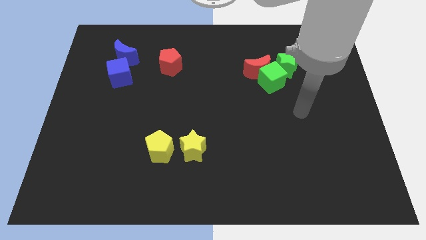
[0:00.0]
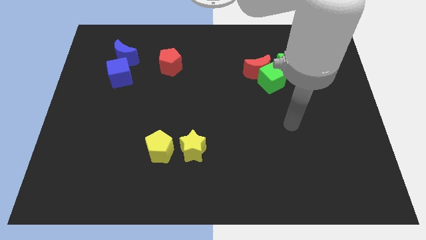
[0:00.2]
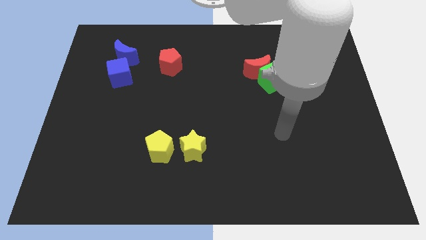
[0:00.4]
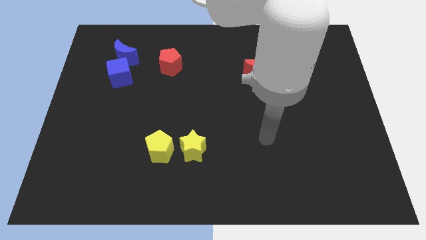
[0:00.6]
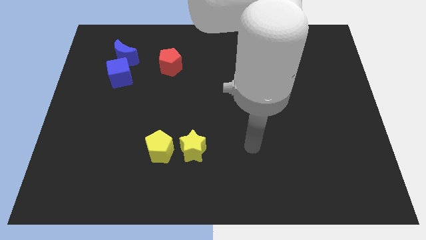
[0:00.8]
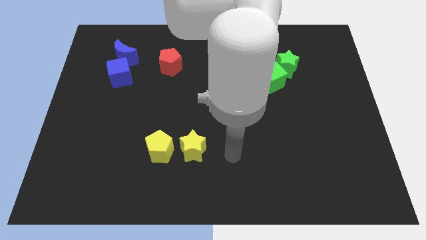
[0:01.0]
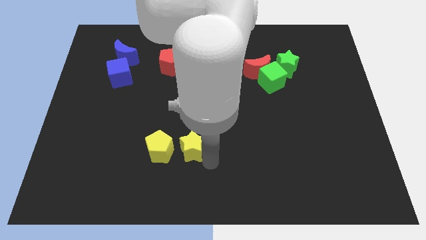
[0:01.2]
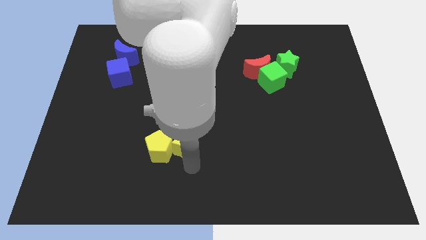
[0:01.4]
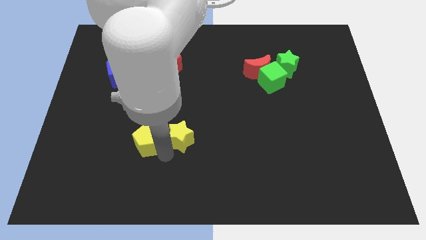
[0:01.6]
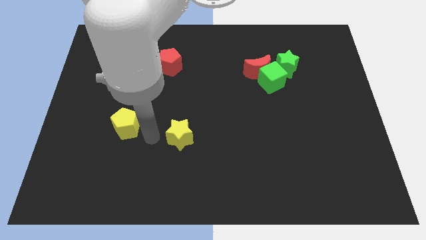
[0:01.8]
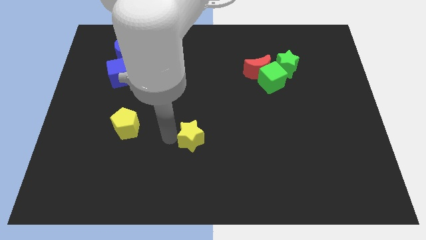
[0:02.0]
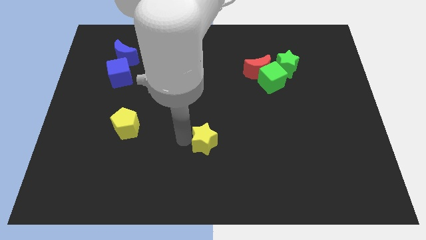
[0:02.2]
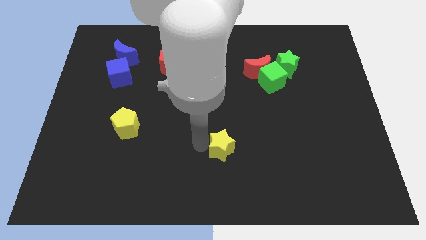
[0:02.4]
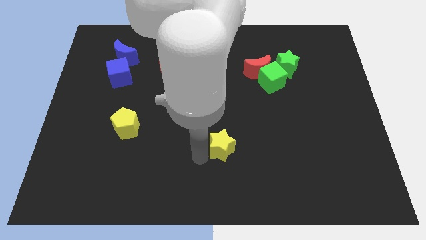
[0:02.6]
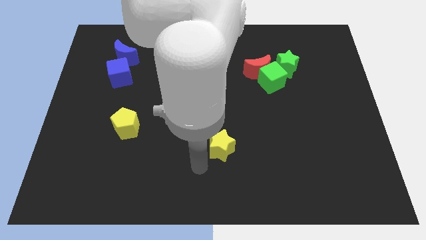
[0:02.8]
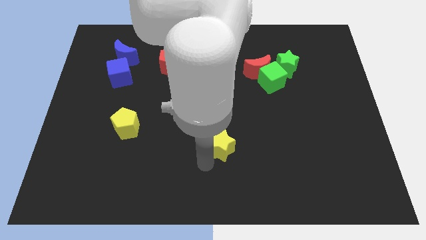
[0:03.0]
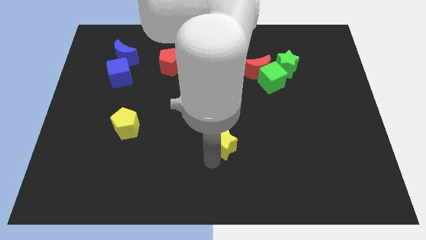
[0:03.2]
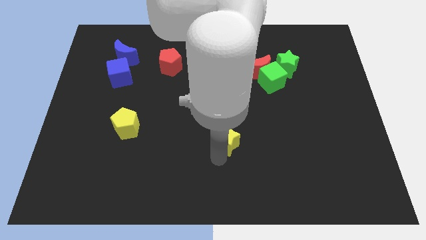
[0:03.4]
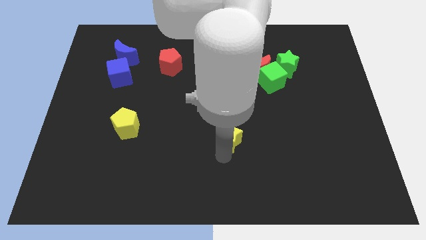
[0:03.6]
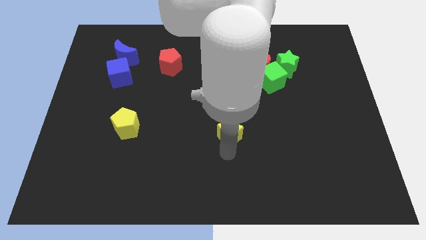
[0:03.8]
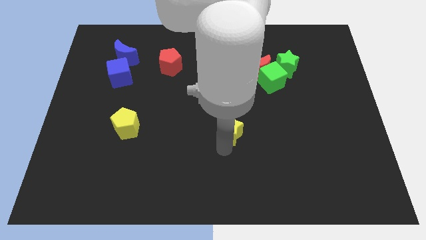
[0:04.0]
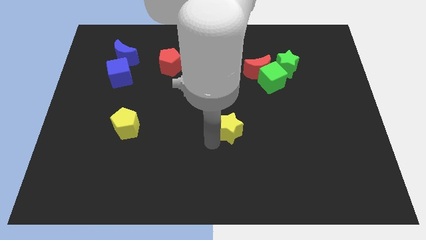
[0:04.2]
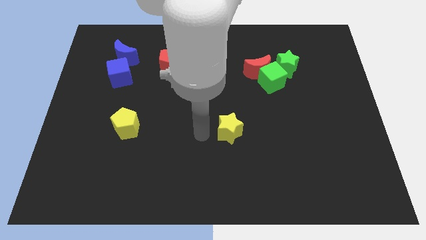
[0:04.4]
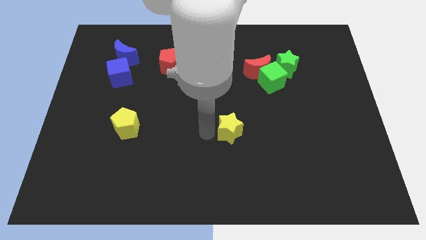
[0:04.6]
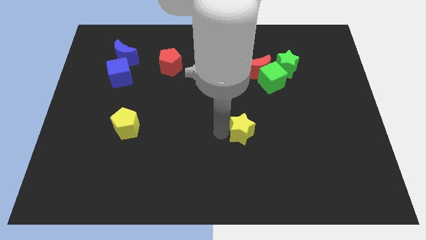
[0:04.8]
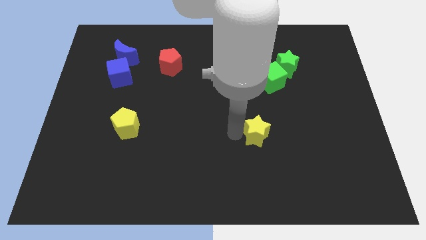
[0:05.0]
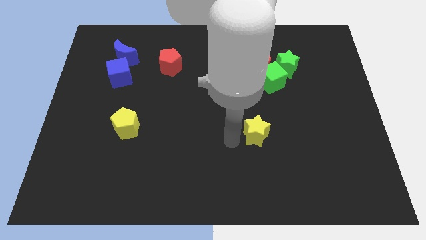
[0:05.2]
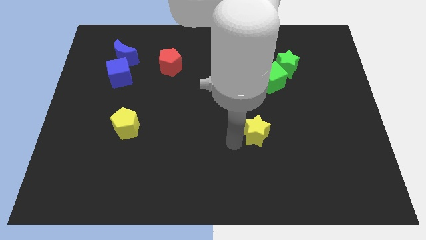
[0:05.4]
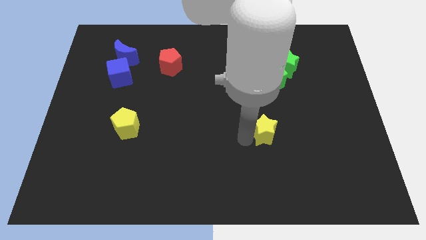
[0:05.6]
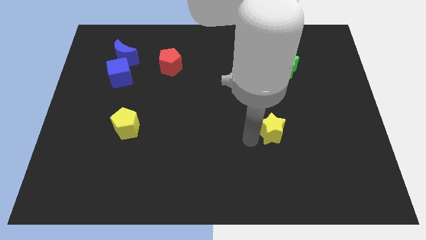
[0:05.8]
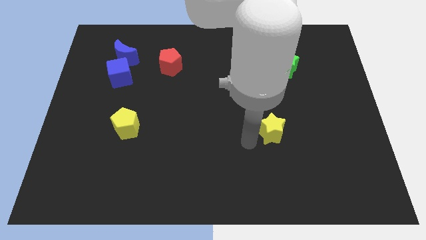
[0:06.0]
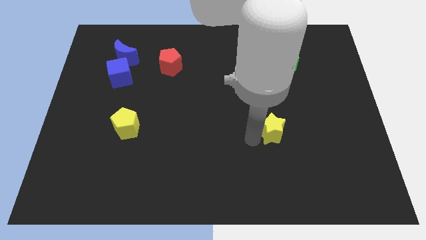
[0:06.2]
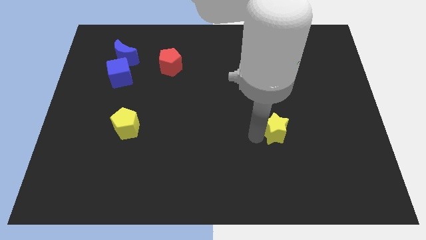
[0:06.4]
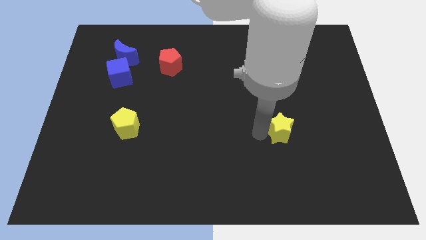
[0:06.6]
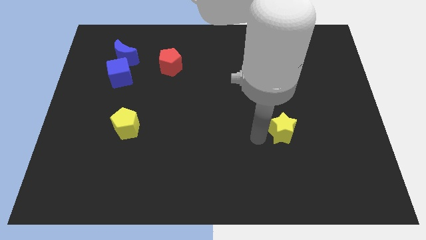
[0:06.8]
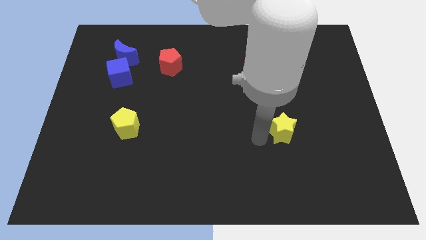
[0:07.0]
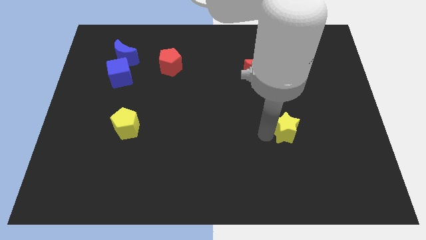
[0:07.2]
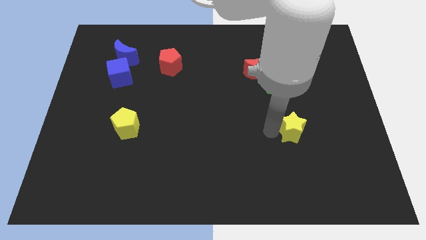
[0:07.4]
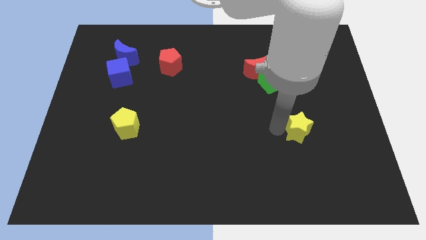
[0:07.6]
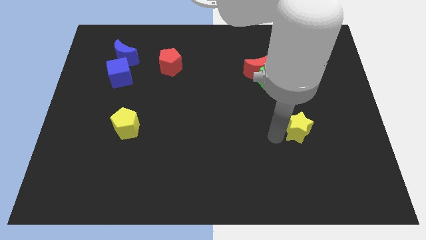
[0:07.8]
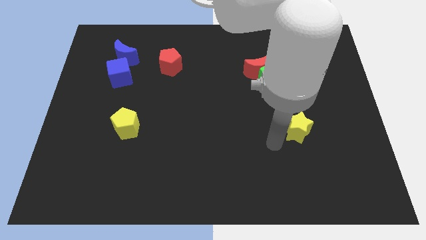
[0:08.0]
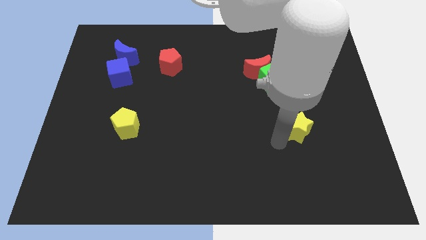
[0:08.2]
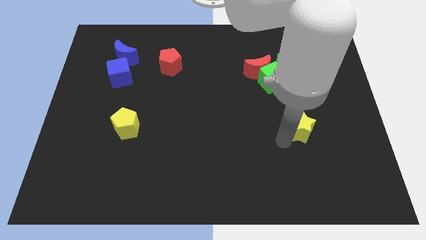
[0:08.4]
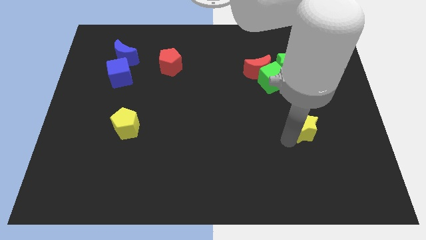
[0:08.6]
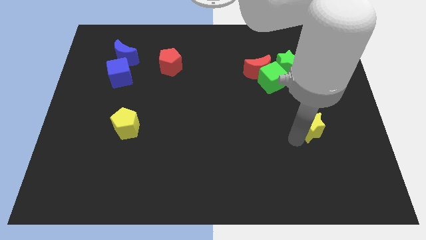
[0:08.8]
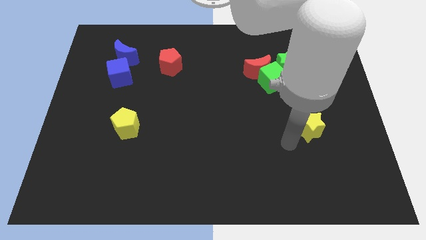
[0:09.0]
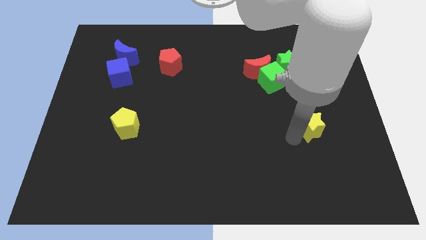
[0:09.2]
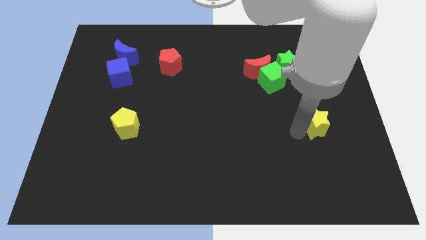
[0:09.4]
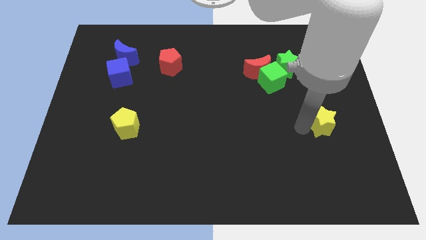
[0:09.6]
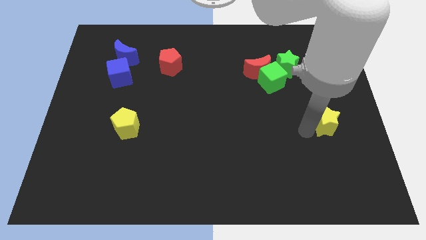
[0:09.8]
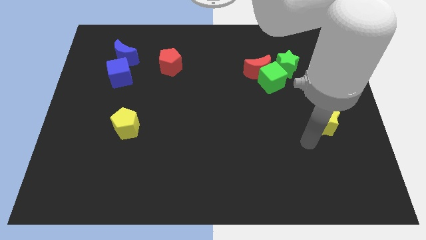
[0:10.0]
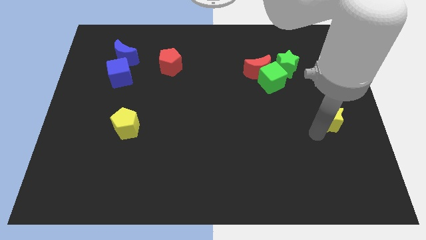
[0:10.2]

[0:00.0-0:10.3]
move the yellow star to the center right

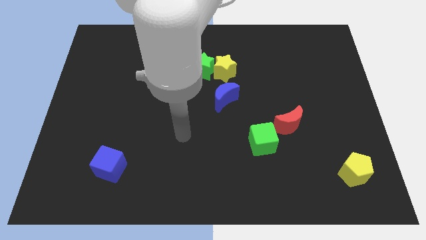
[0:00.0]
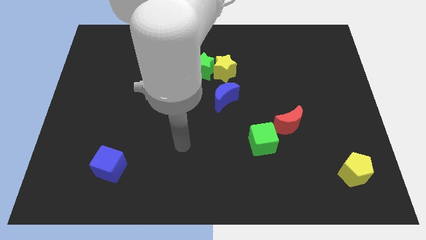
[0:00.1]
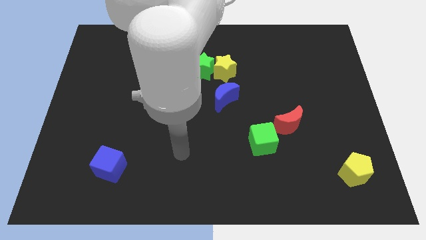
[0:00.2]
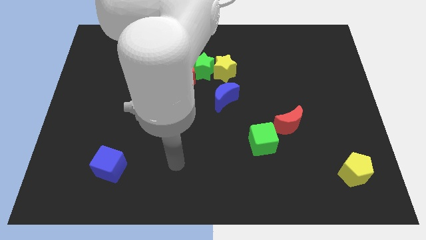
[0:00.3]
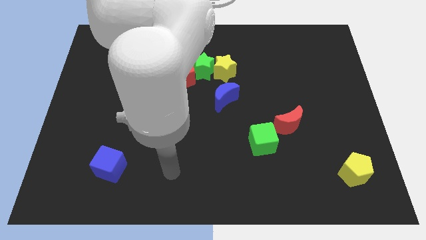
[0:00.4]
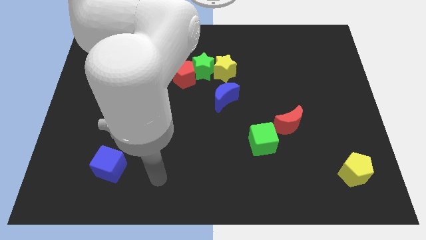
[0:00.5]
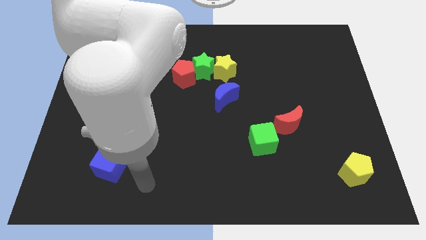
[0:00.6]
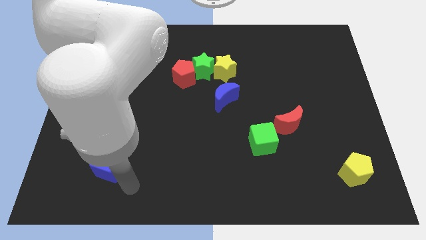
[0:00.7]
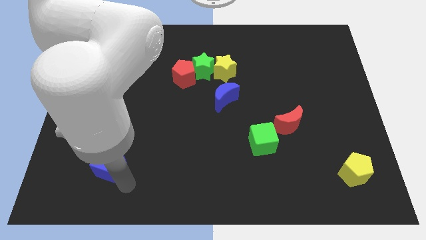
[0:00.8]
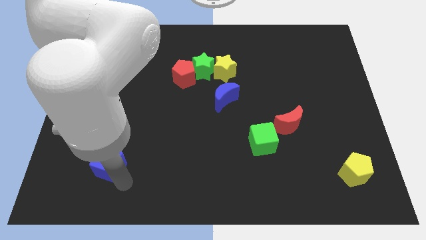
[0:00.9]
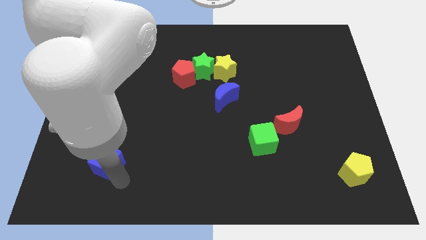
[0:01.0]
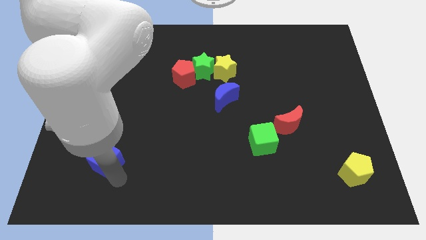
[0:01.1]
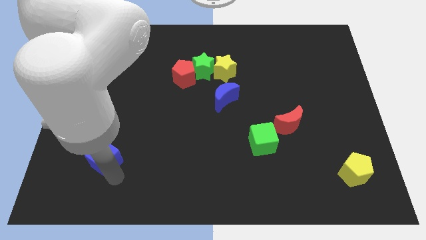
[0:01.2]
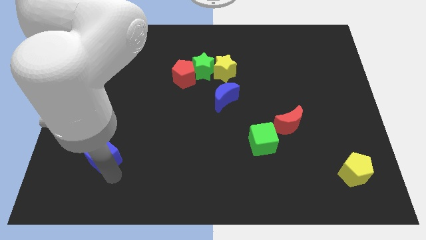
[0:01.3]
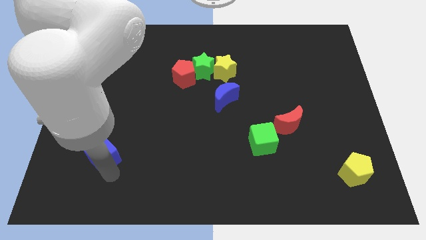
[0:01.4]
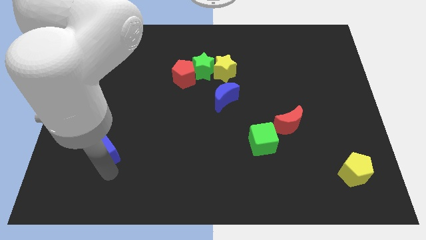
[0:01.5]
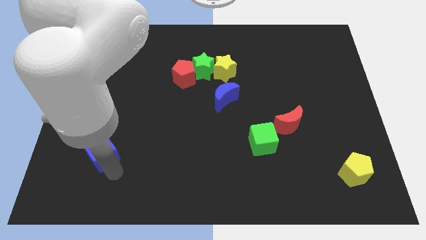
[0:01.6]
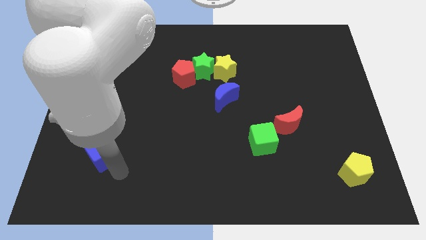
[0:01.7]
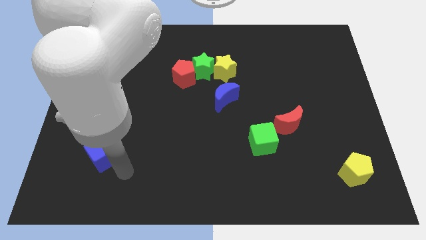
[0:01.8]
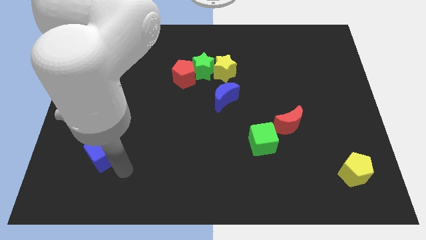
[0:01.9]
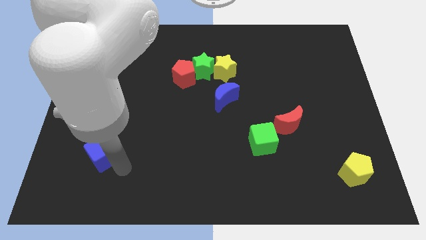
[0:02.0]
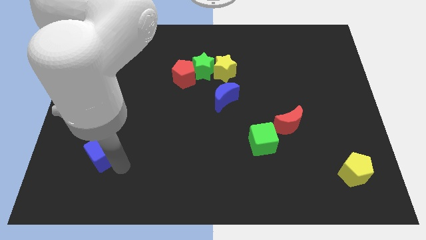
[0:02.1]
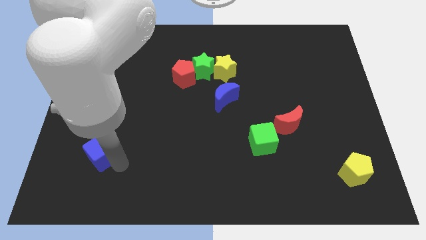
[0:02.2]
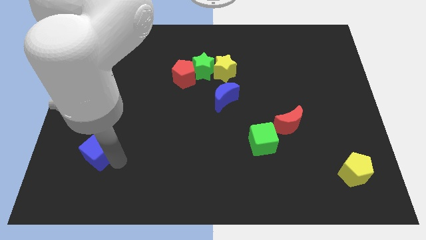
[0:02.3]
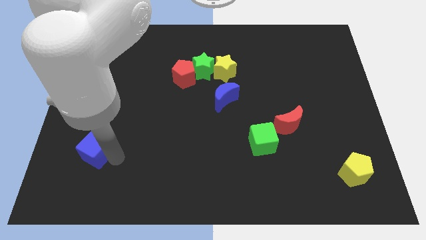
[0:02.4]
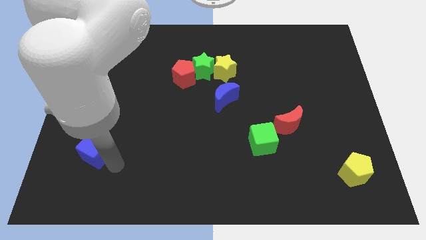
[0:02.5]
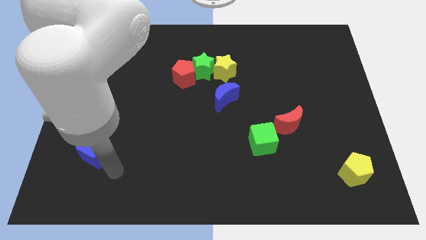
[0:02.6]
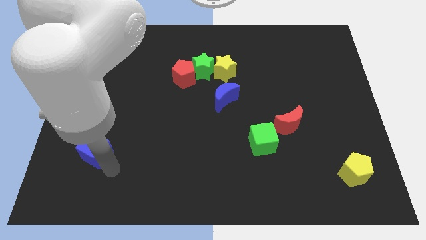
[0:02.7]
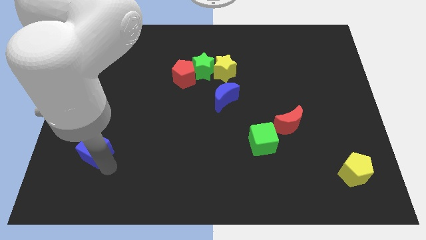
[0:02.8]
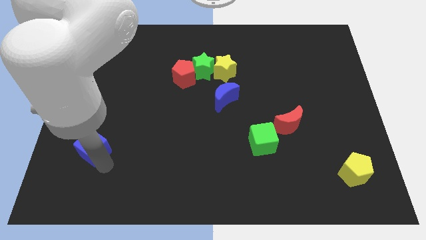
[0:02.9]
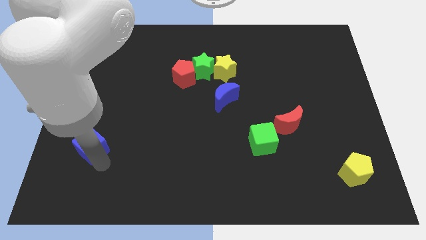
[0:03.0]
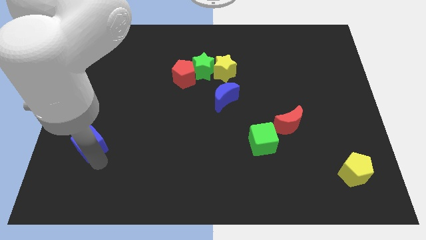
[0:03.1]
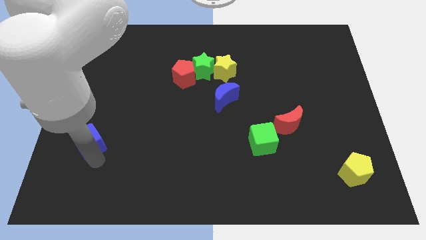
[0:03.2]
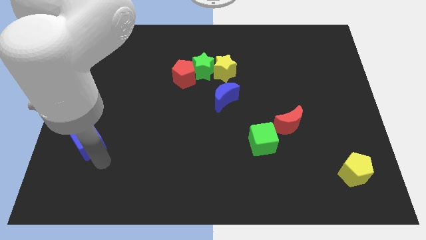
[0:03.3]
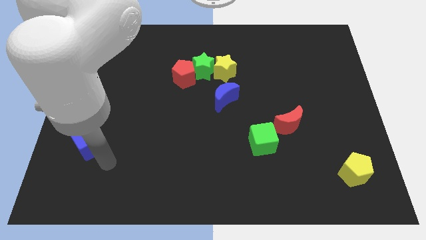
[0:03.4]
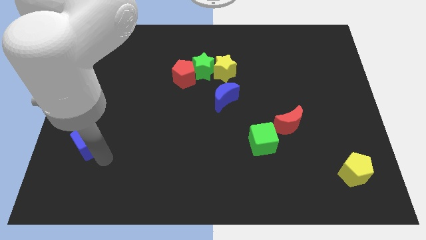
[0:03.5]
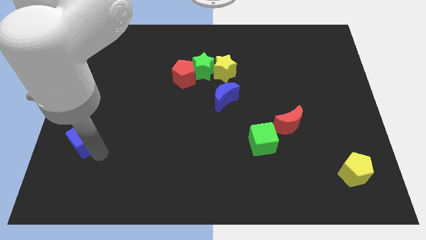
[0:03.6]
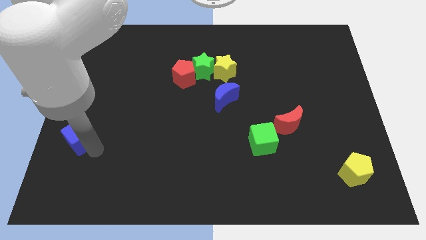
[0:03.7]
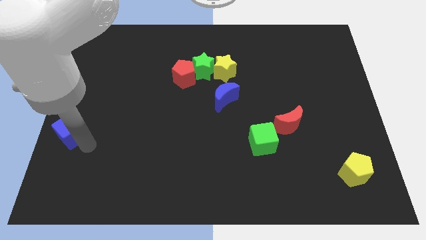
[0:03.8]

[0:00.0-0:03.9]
slide the blue cube to the left side of the board
